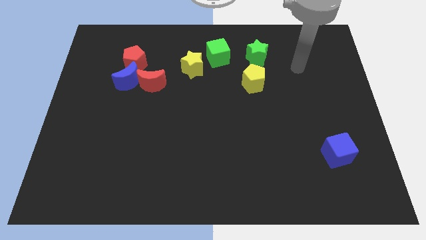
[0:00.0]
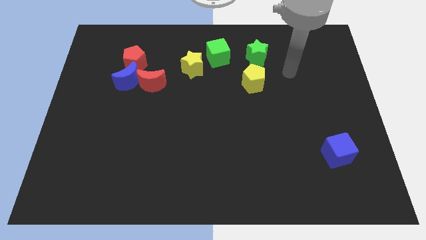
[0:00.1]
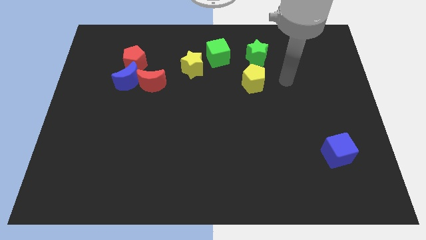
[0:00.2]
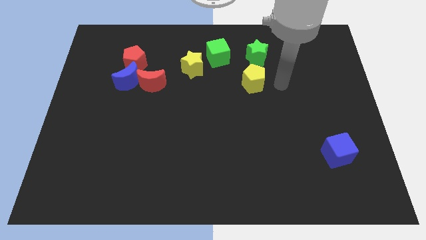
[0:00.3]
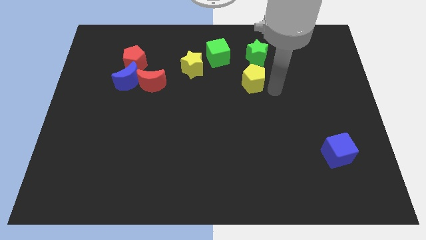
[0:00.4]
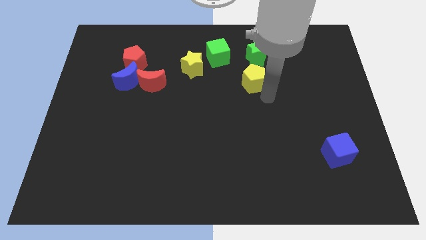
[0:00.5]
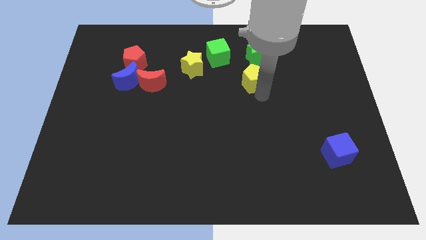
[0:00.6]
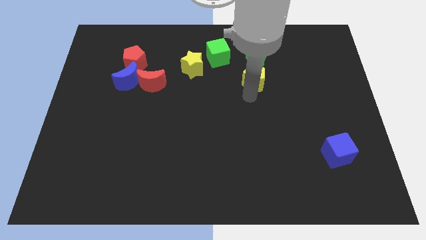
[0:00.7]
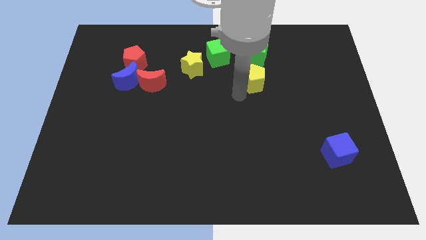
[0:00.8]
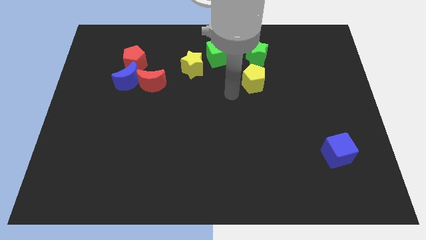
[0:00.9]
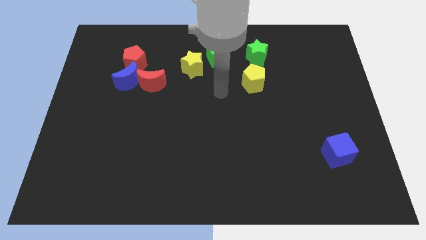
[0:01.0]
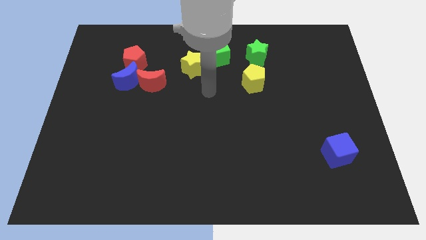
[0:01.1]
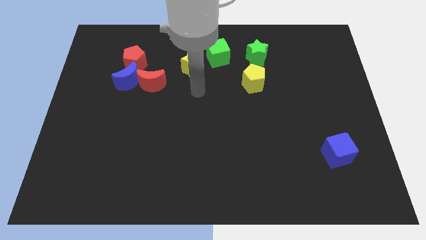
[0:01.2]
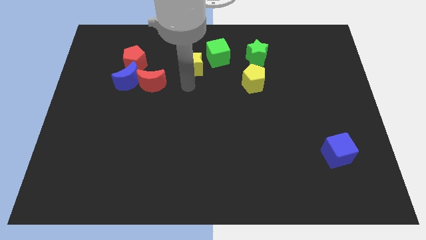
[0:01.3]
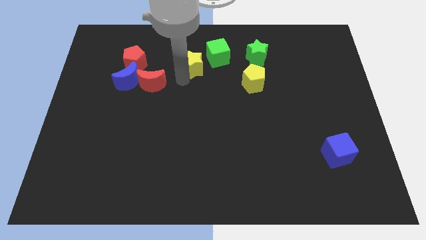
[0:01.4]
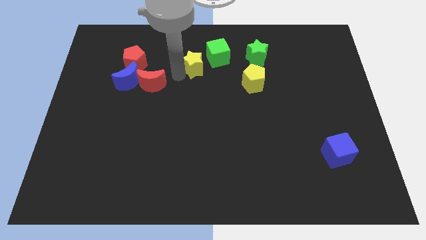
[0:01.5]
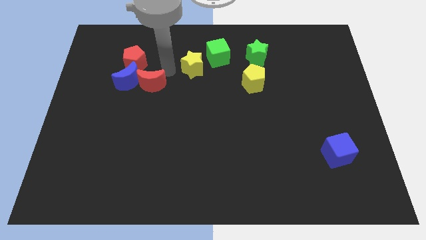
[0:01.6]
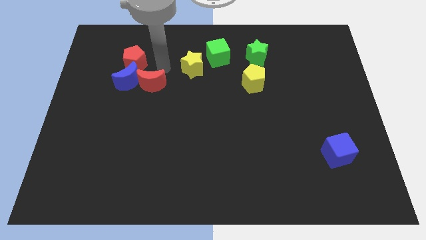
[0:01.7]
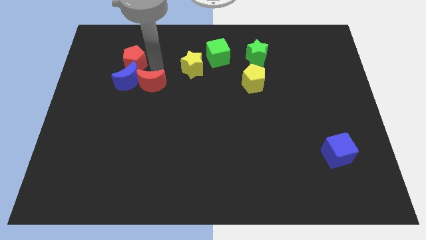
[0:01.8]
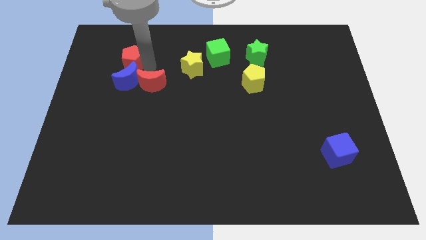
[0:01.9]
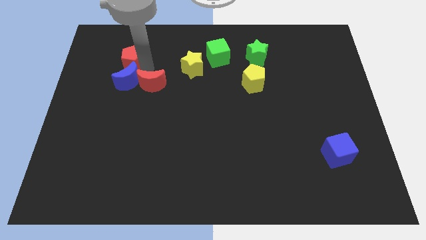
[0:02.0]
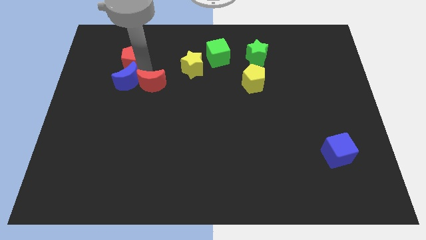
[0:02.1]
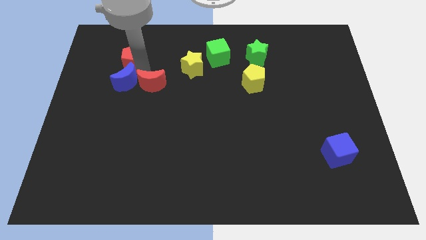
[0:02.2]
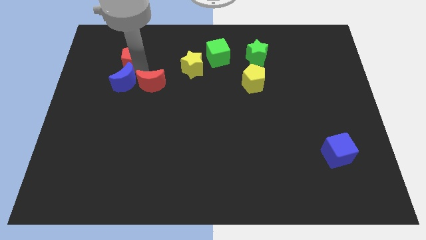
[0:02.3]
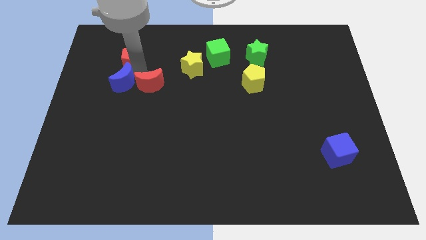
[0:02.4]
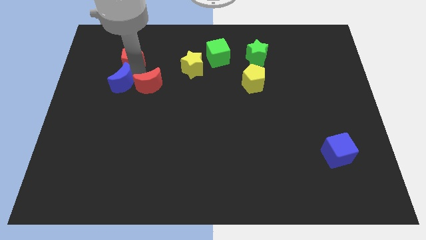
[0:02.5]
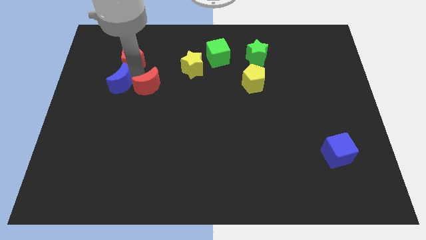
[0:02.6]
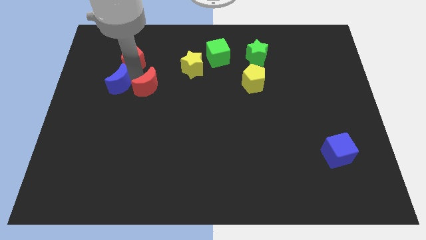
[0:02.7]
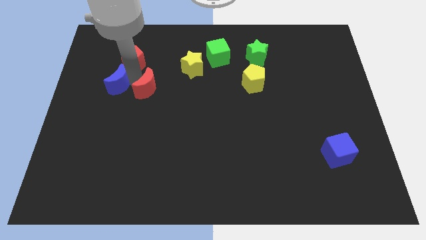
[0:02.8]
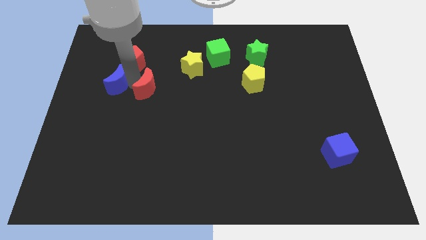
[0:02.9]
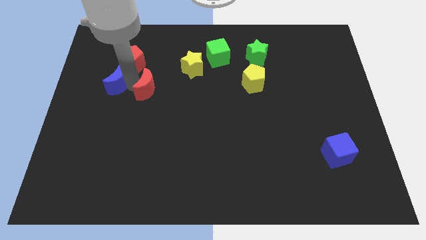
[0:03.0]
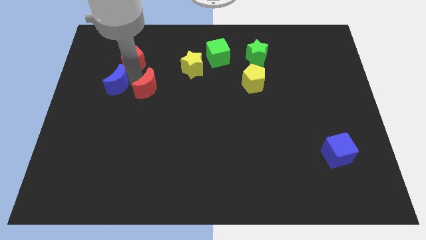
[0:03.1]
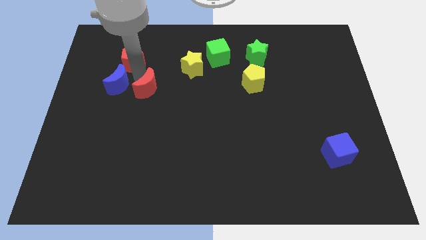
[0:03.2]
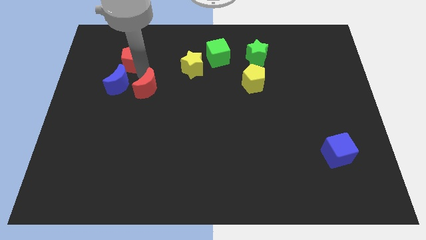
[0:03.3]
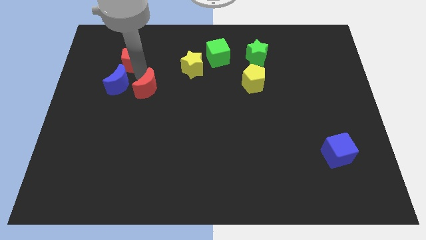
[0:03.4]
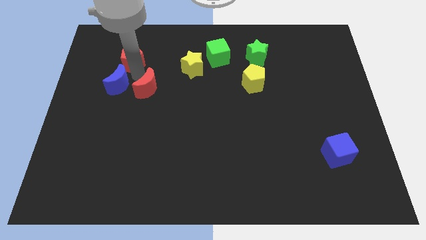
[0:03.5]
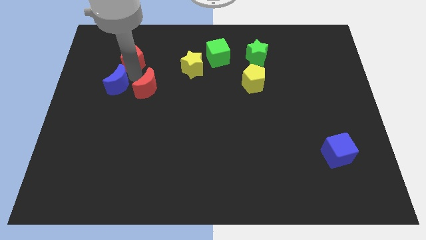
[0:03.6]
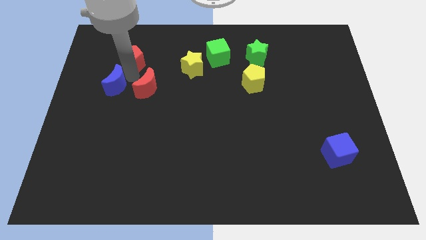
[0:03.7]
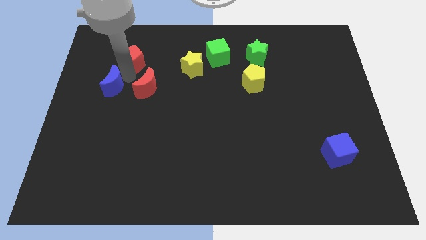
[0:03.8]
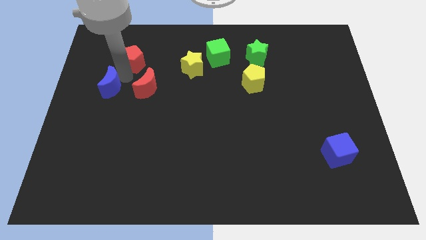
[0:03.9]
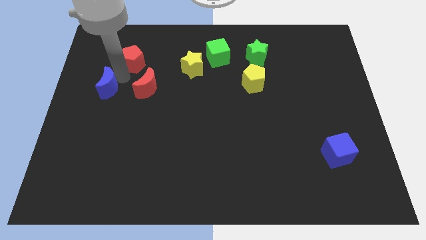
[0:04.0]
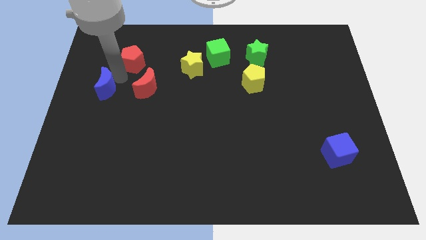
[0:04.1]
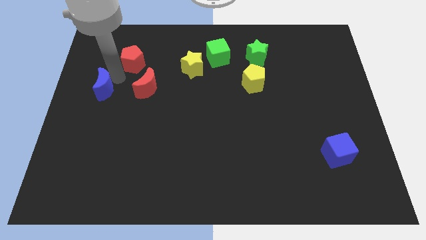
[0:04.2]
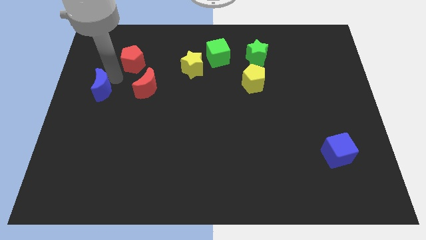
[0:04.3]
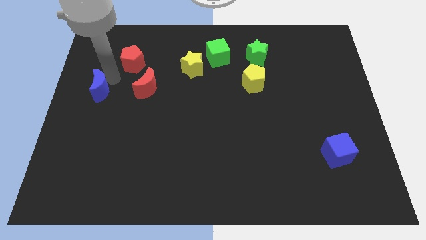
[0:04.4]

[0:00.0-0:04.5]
move the blue moon away from the red moon and red pentagon

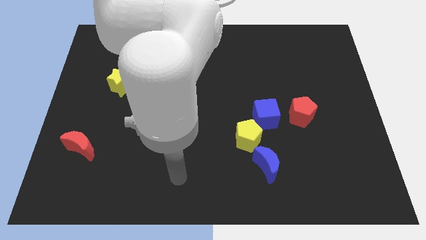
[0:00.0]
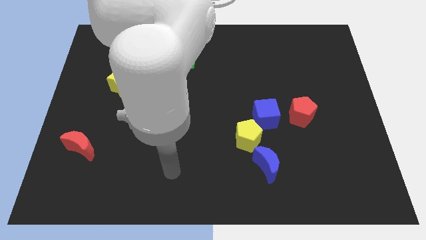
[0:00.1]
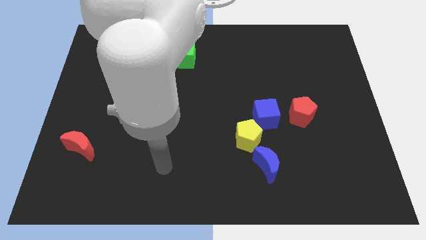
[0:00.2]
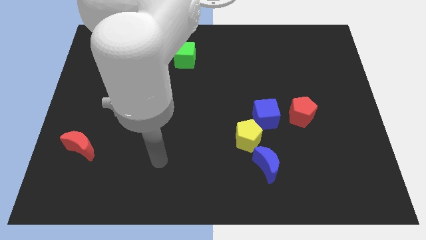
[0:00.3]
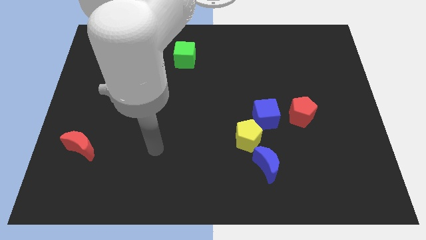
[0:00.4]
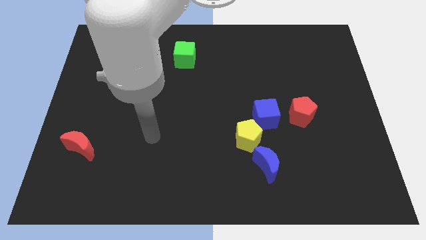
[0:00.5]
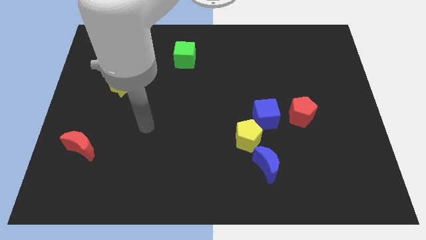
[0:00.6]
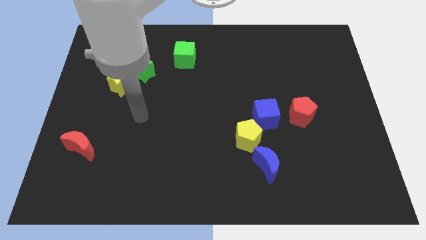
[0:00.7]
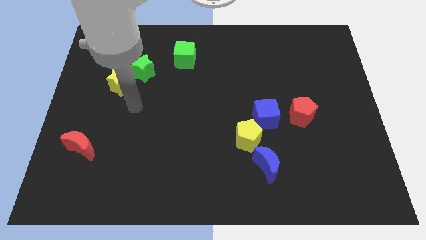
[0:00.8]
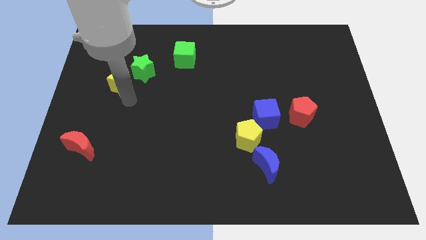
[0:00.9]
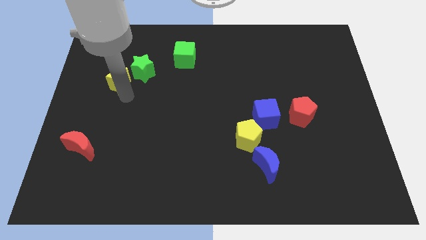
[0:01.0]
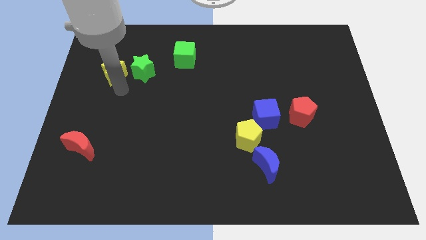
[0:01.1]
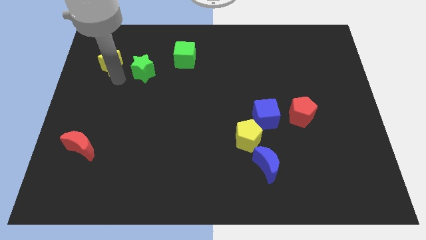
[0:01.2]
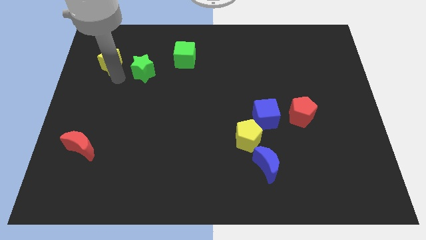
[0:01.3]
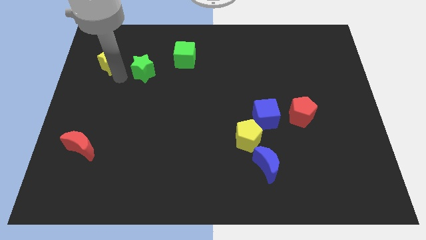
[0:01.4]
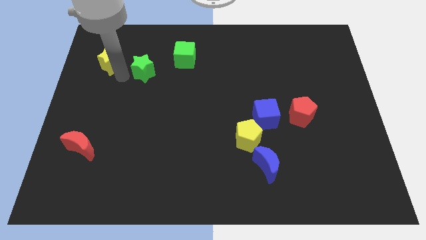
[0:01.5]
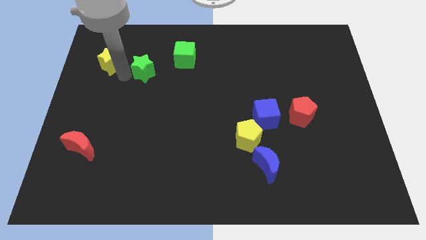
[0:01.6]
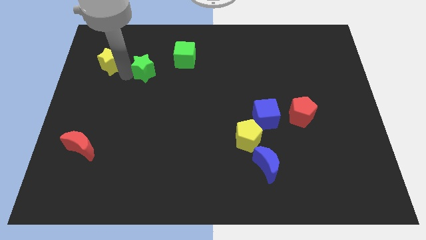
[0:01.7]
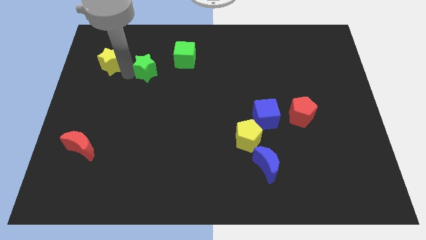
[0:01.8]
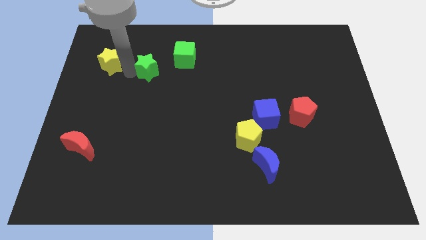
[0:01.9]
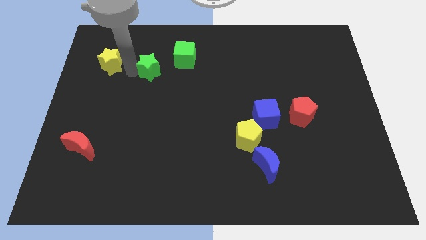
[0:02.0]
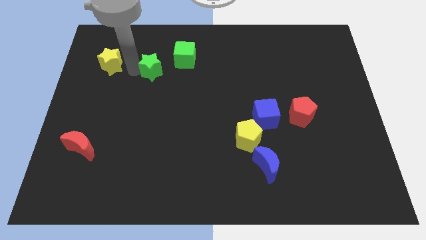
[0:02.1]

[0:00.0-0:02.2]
separate the green star from the yellow star

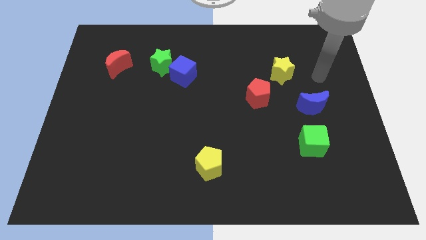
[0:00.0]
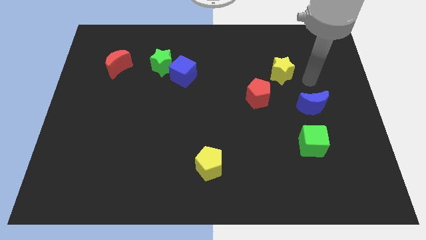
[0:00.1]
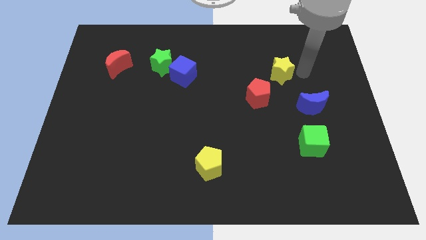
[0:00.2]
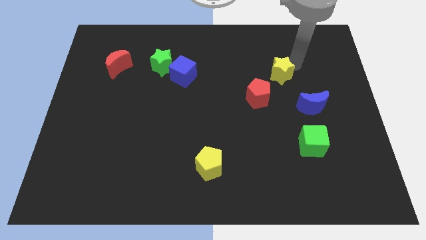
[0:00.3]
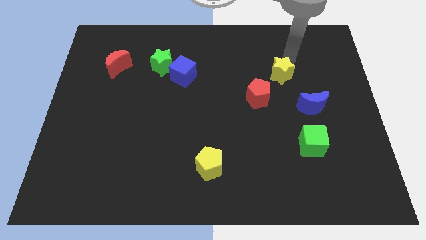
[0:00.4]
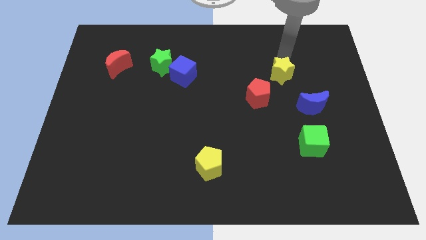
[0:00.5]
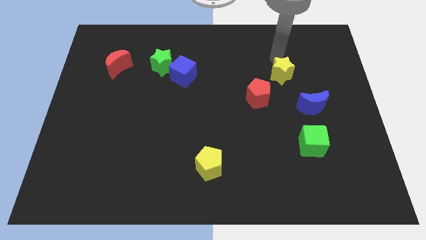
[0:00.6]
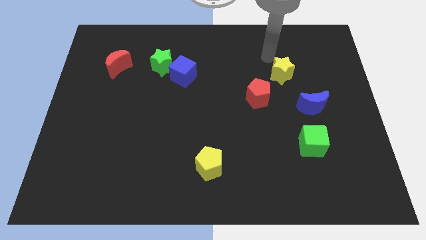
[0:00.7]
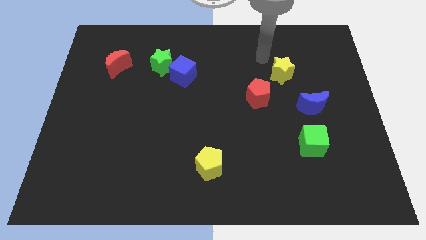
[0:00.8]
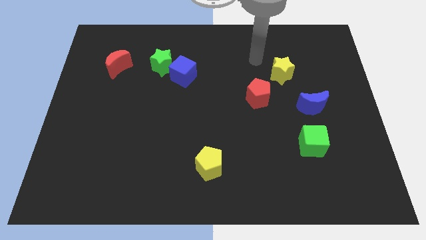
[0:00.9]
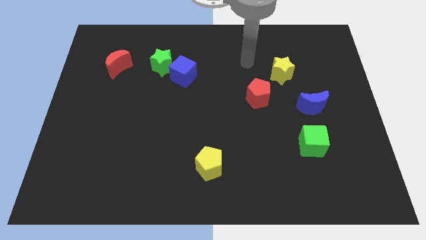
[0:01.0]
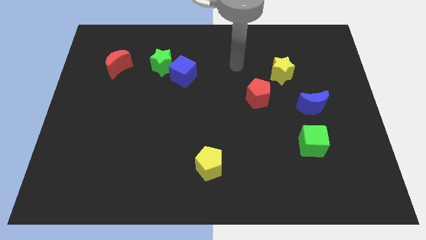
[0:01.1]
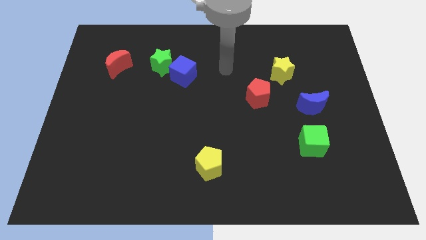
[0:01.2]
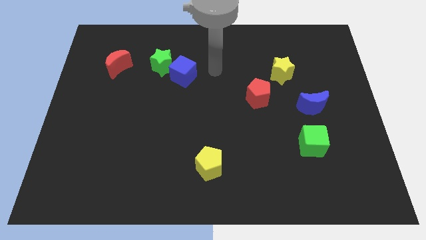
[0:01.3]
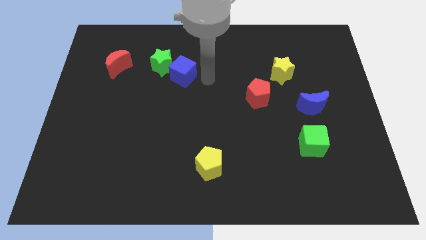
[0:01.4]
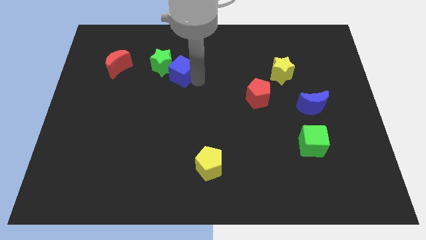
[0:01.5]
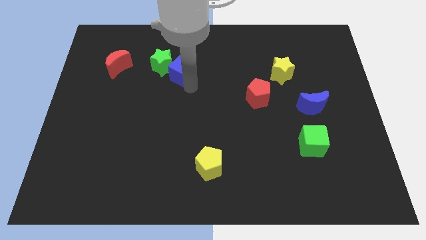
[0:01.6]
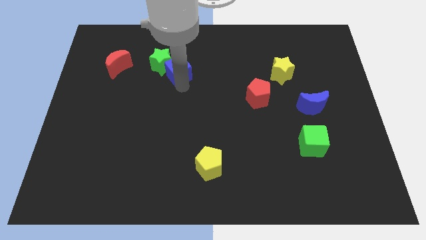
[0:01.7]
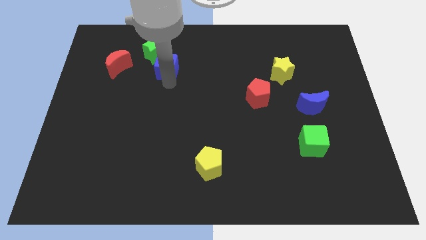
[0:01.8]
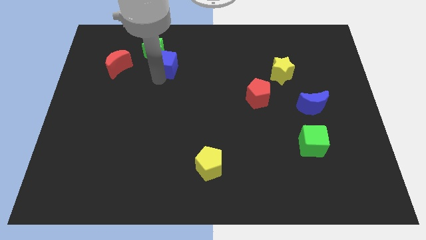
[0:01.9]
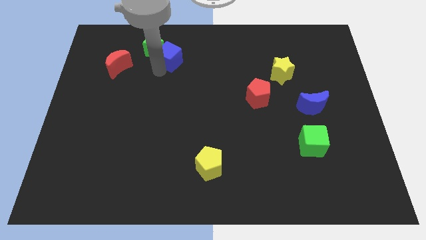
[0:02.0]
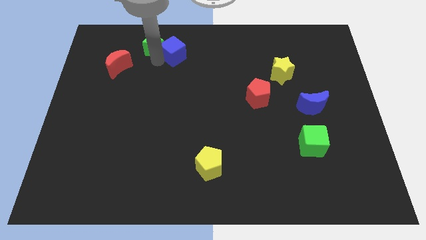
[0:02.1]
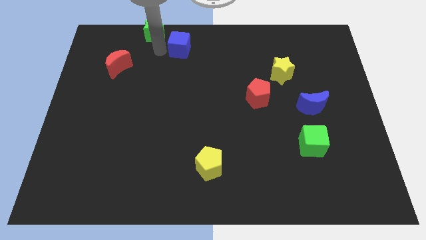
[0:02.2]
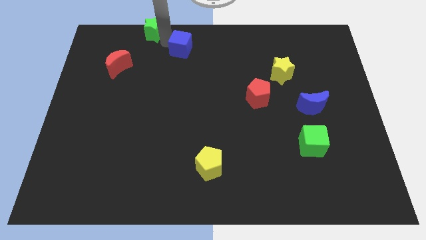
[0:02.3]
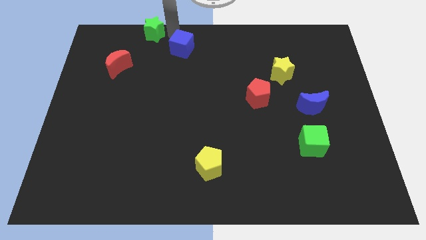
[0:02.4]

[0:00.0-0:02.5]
separate the blue cube from the green star
